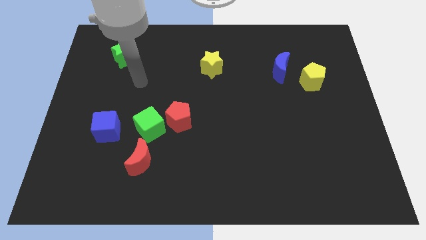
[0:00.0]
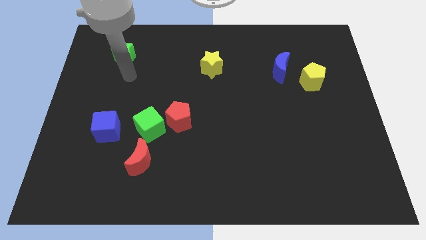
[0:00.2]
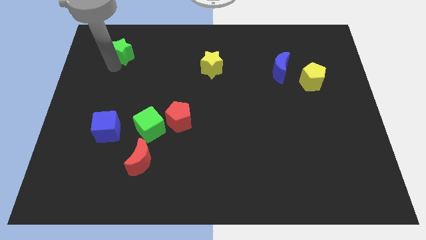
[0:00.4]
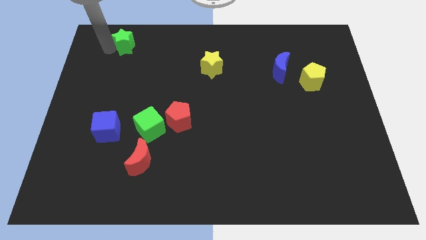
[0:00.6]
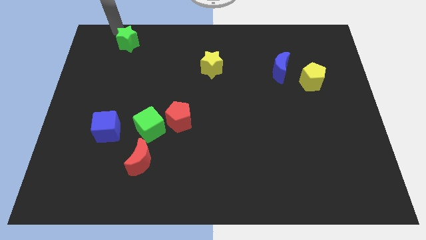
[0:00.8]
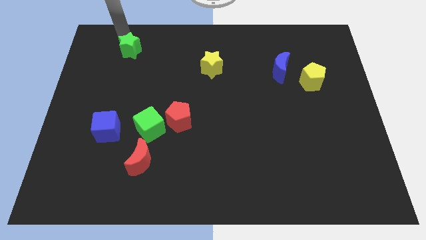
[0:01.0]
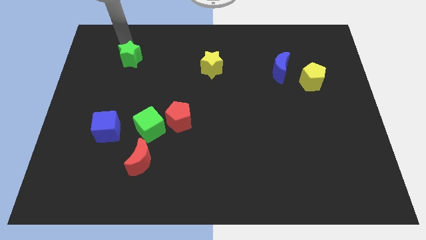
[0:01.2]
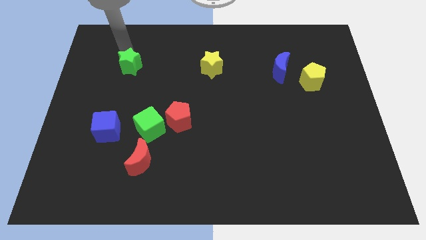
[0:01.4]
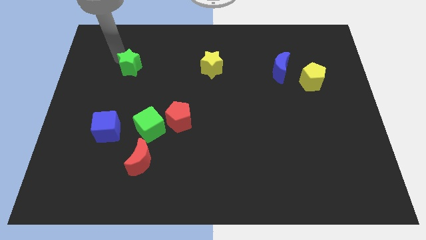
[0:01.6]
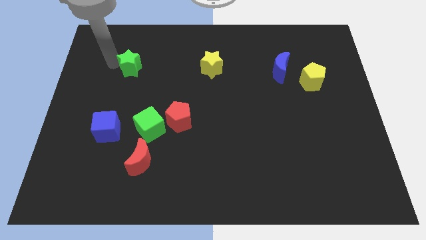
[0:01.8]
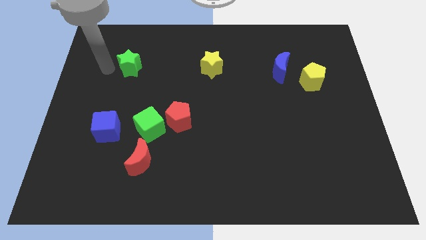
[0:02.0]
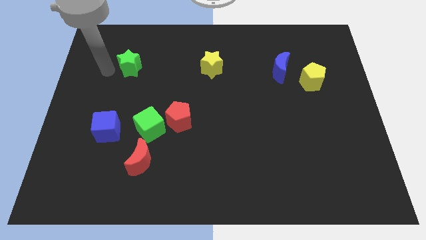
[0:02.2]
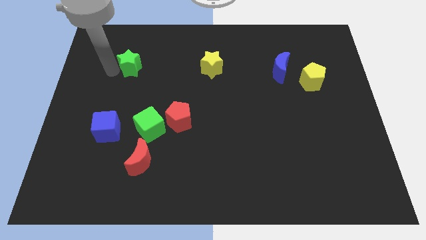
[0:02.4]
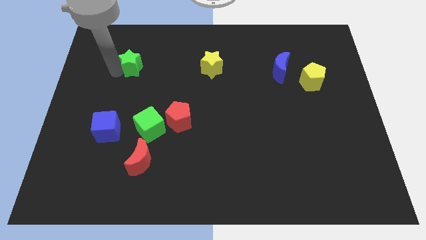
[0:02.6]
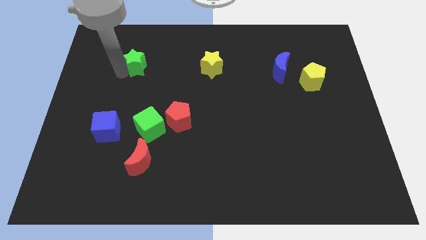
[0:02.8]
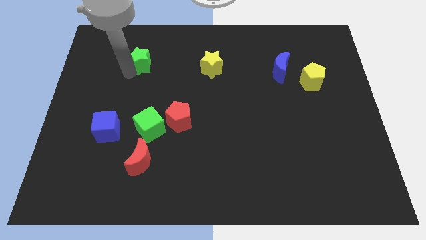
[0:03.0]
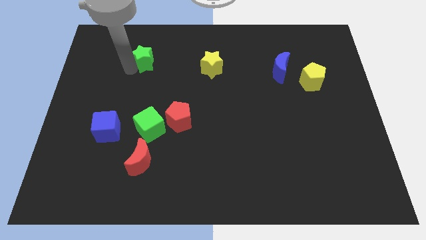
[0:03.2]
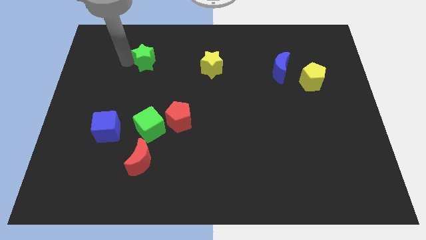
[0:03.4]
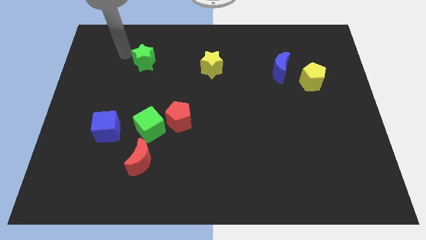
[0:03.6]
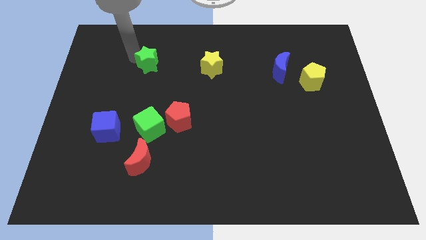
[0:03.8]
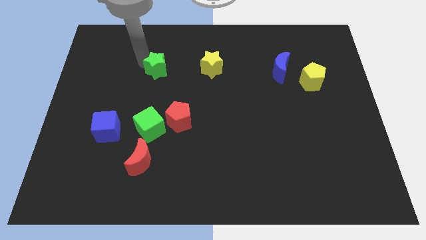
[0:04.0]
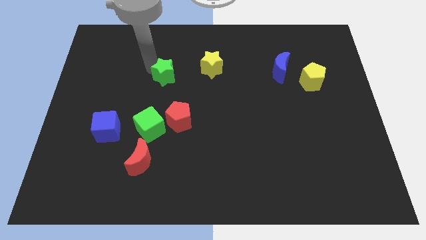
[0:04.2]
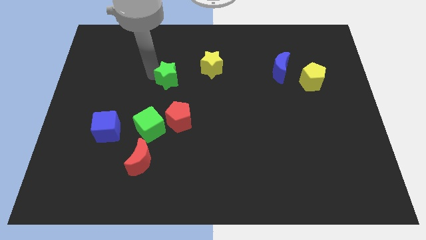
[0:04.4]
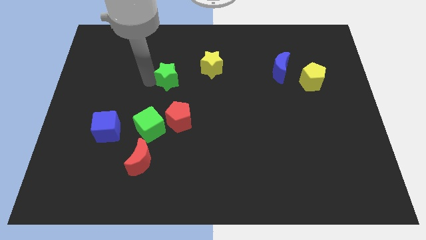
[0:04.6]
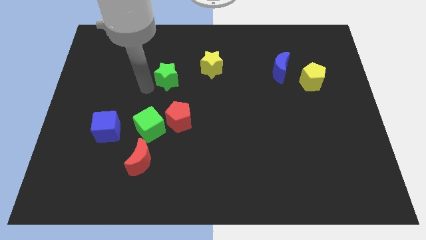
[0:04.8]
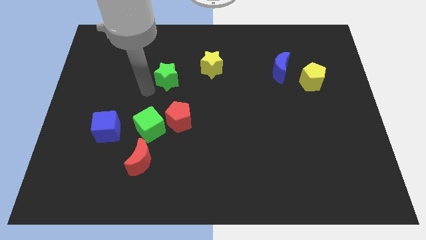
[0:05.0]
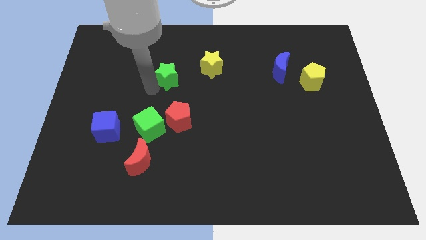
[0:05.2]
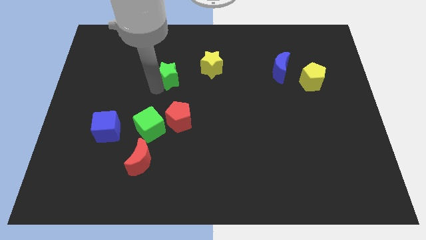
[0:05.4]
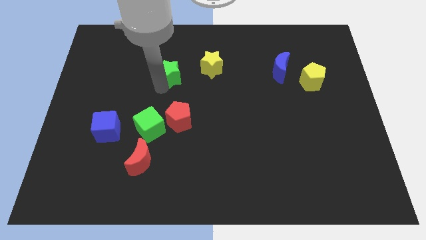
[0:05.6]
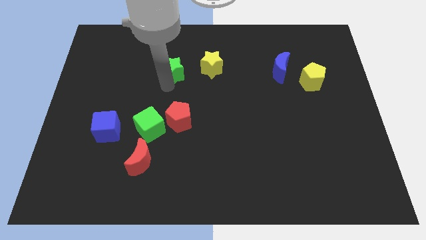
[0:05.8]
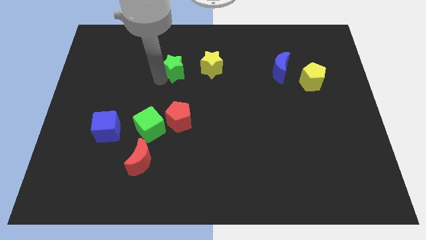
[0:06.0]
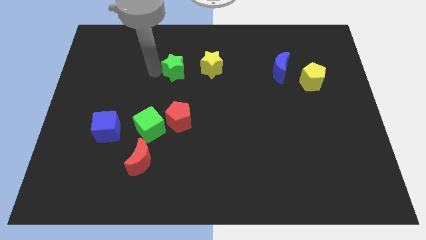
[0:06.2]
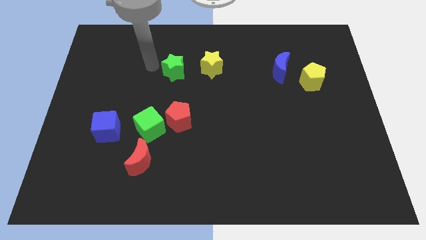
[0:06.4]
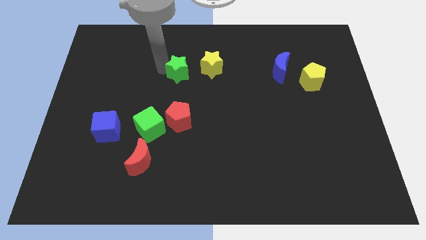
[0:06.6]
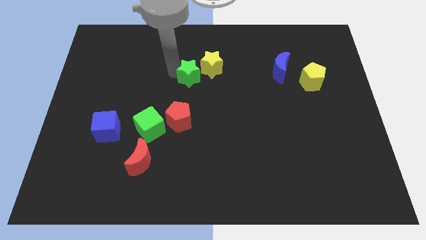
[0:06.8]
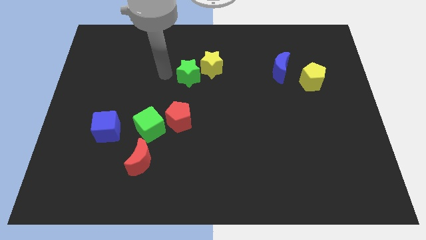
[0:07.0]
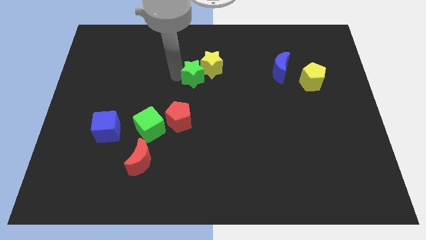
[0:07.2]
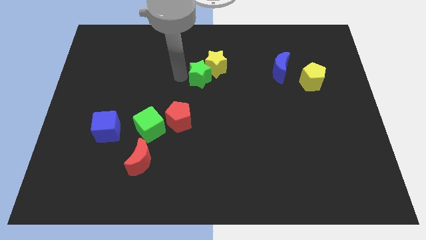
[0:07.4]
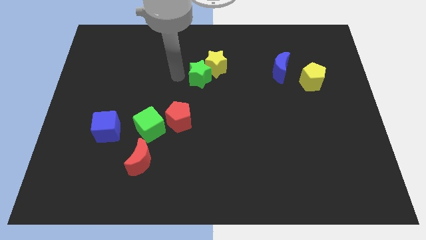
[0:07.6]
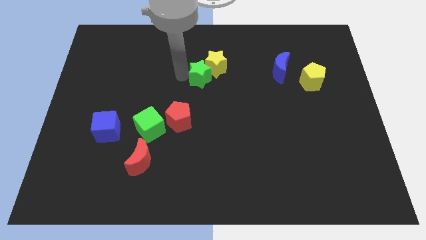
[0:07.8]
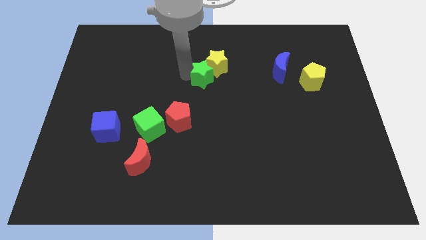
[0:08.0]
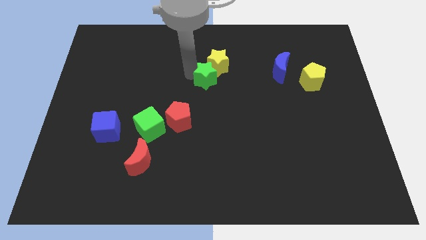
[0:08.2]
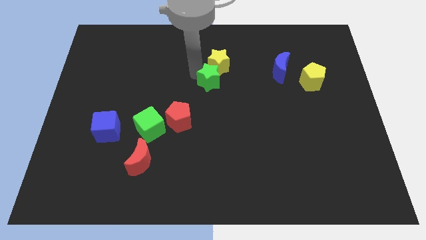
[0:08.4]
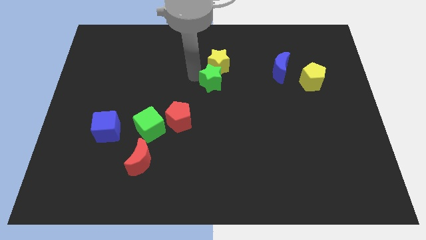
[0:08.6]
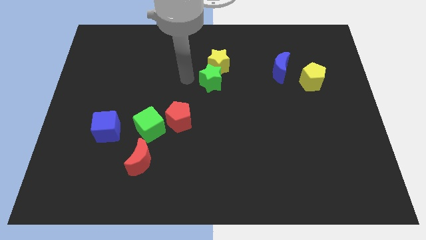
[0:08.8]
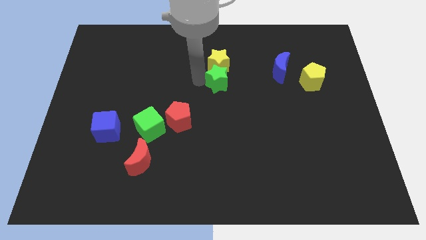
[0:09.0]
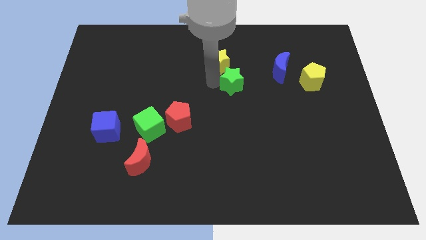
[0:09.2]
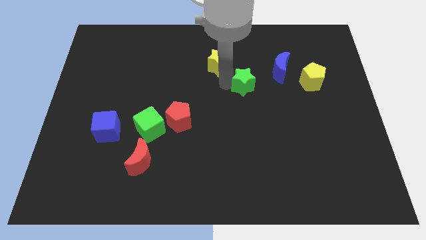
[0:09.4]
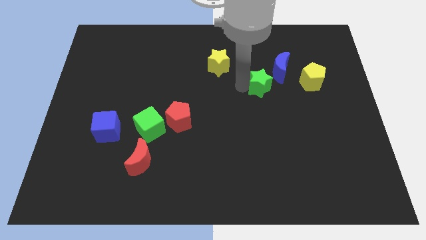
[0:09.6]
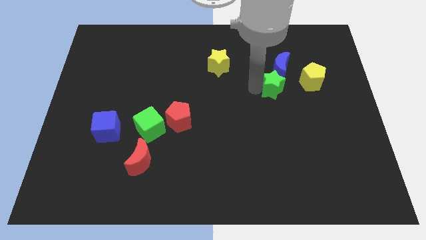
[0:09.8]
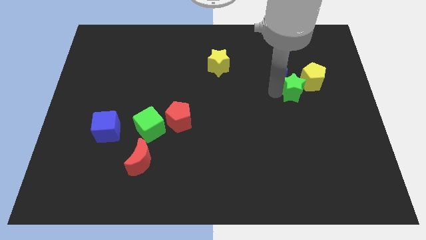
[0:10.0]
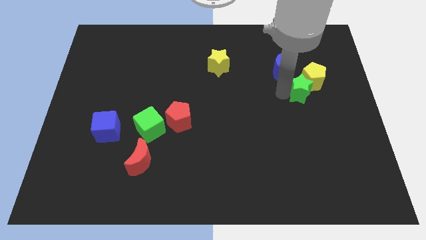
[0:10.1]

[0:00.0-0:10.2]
slide the green star towards the yellow pentagon

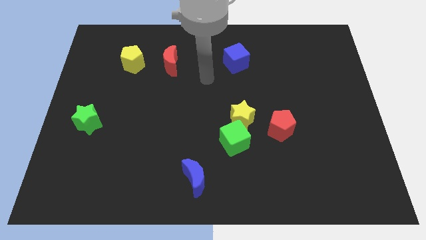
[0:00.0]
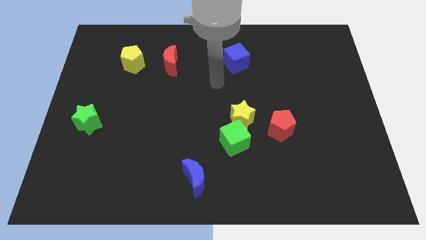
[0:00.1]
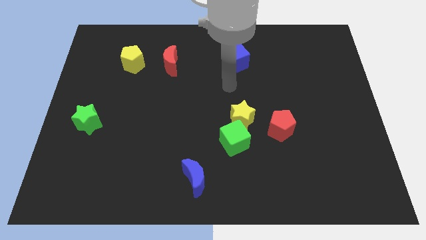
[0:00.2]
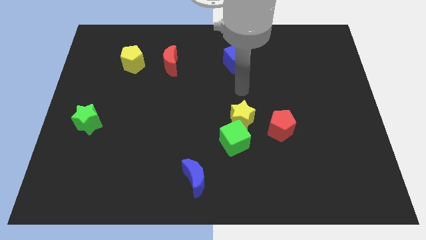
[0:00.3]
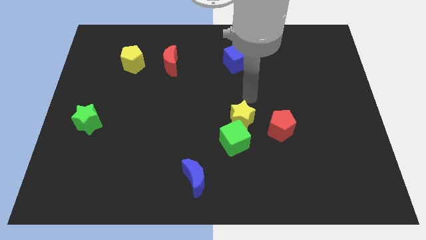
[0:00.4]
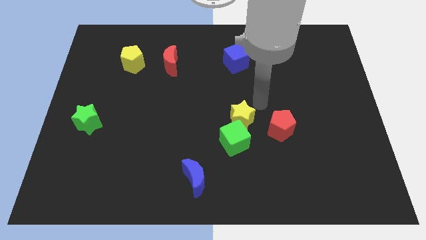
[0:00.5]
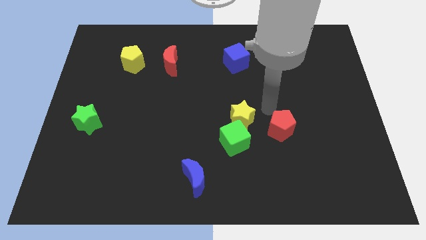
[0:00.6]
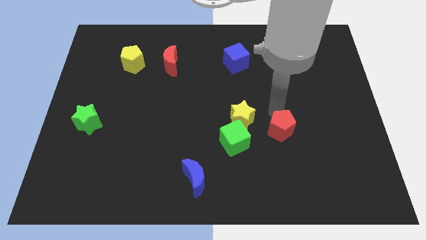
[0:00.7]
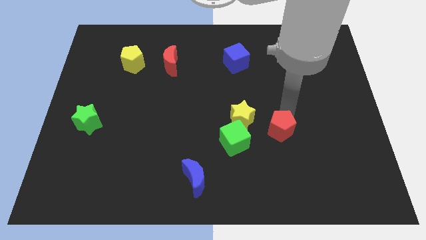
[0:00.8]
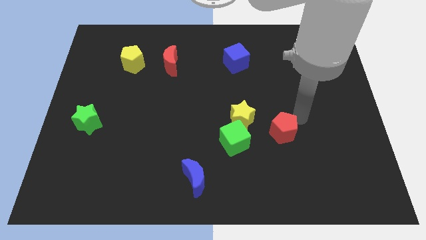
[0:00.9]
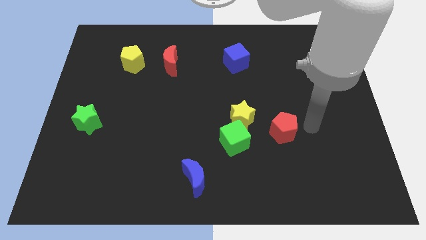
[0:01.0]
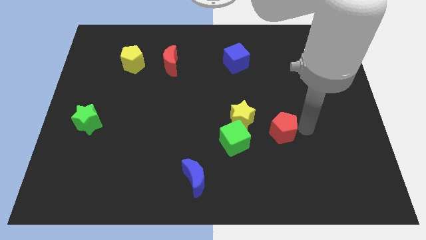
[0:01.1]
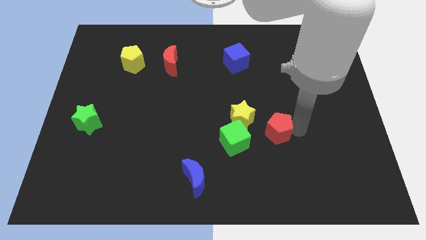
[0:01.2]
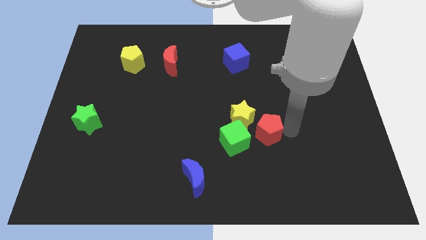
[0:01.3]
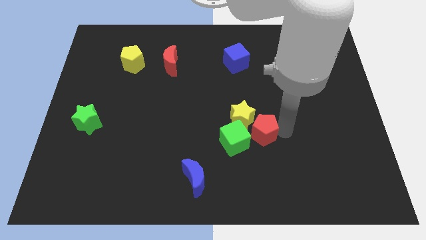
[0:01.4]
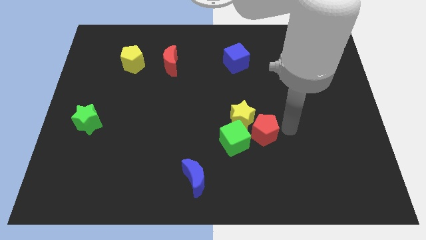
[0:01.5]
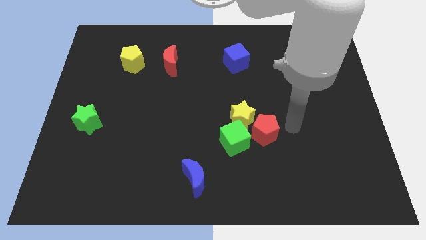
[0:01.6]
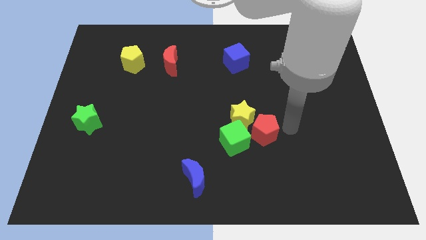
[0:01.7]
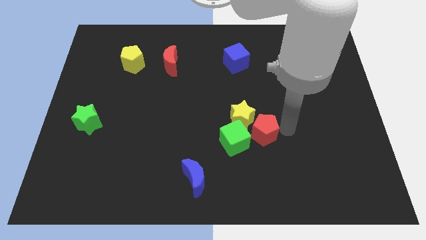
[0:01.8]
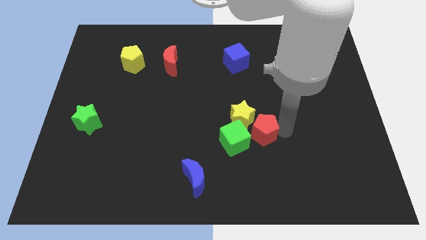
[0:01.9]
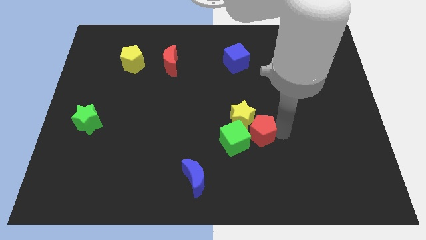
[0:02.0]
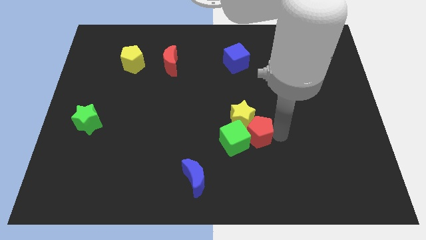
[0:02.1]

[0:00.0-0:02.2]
move the red pentagon next to the green cube
